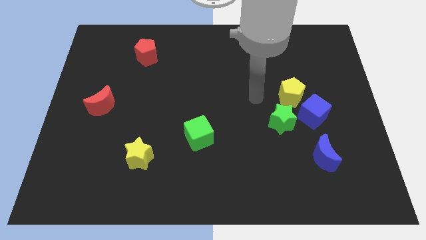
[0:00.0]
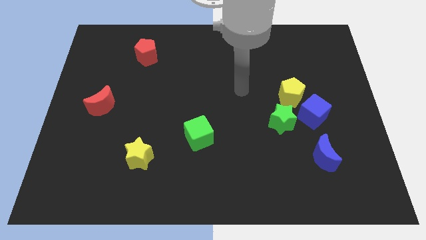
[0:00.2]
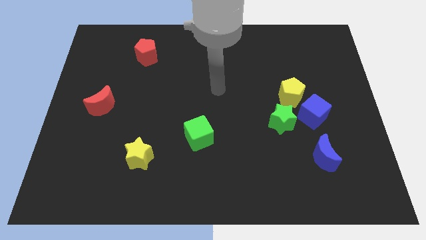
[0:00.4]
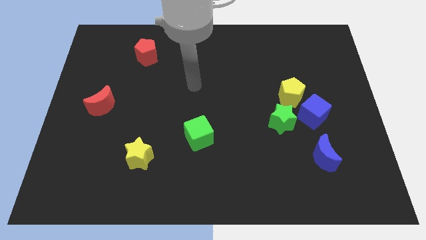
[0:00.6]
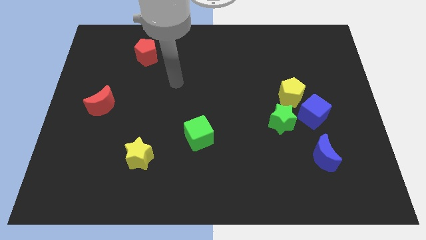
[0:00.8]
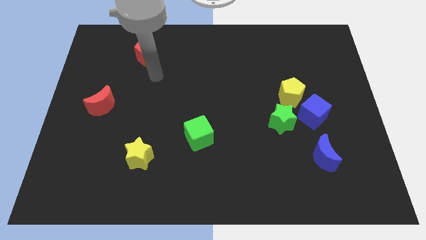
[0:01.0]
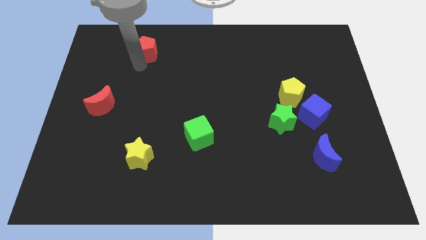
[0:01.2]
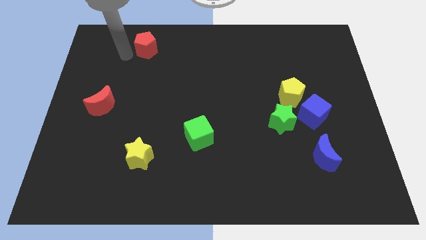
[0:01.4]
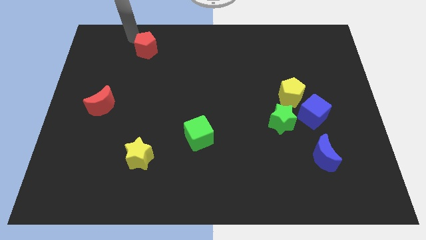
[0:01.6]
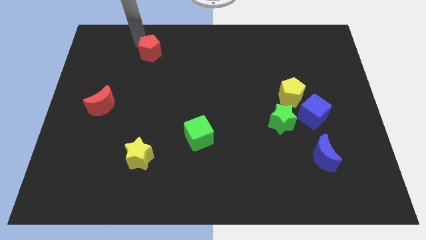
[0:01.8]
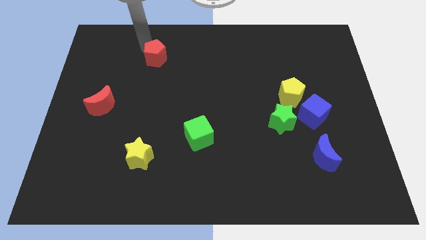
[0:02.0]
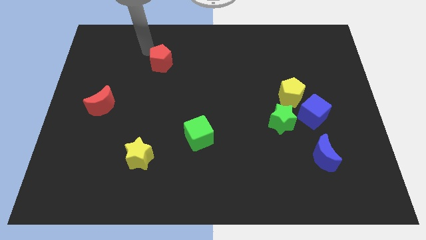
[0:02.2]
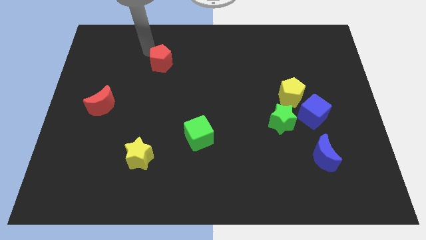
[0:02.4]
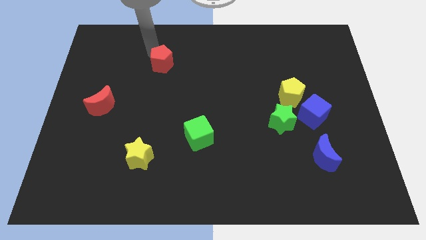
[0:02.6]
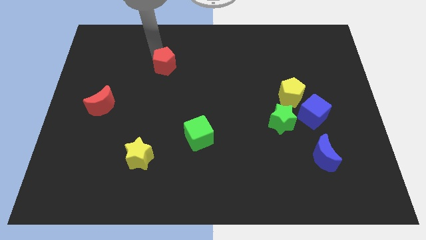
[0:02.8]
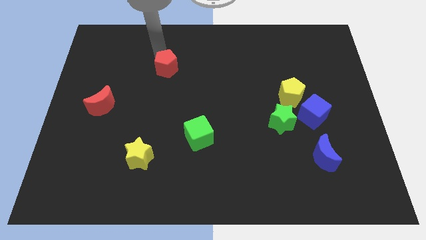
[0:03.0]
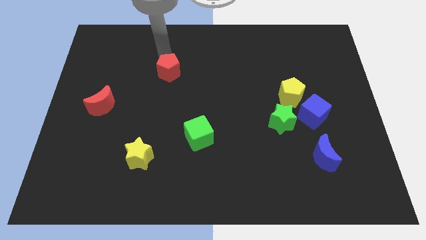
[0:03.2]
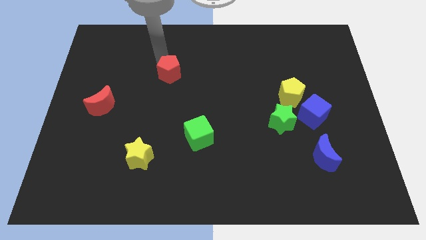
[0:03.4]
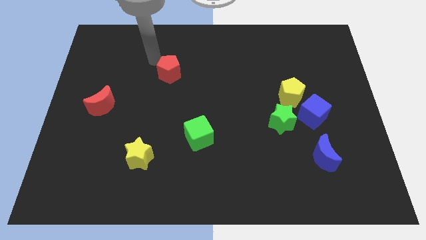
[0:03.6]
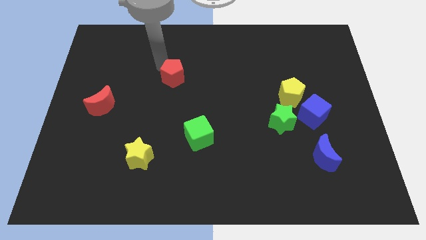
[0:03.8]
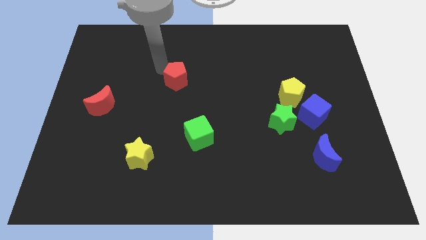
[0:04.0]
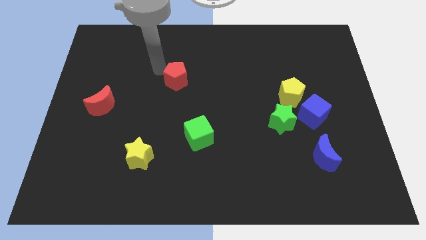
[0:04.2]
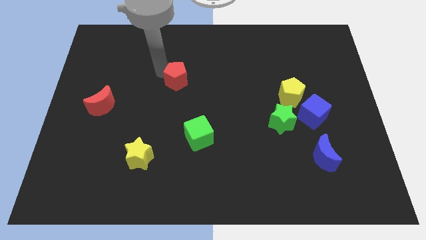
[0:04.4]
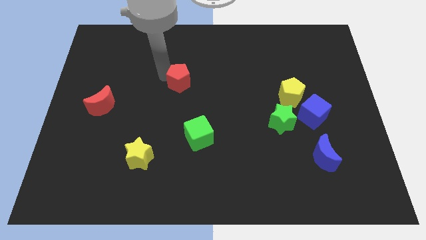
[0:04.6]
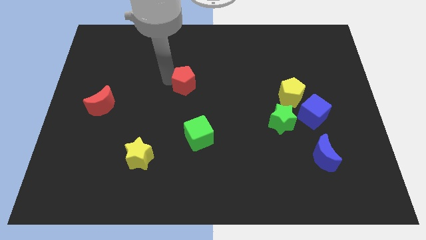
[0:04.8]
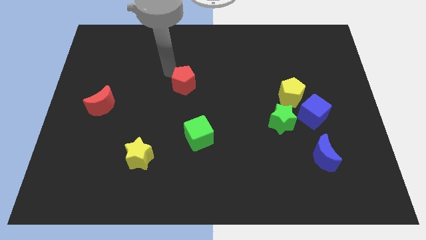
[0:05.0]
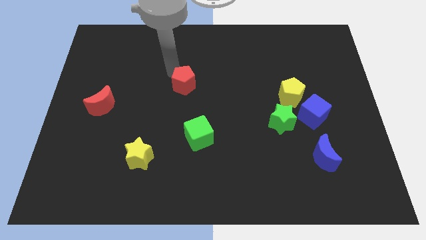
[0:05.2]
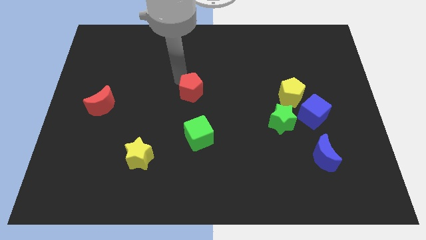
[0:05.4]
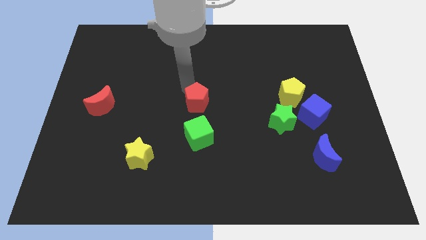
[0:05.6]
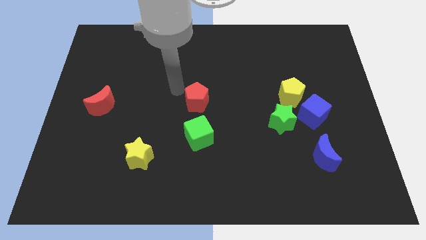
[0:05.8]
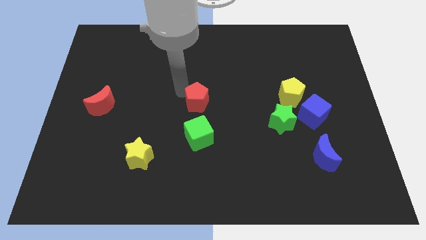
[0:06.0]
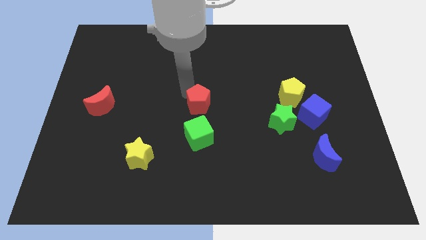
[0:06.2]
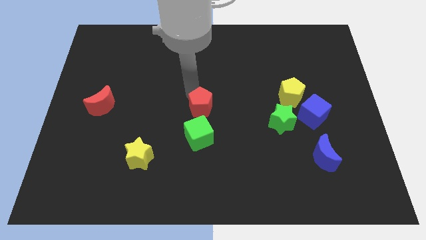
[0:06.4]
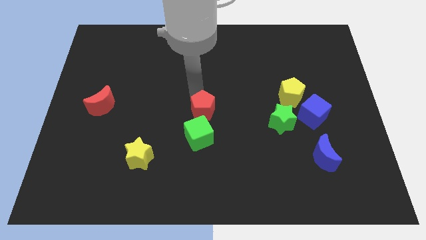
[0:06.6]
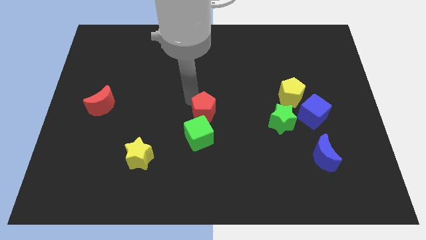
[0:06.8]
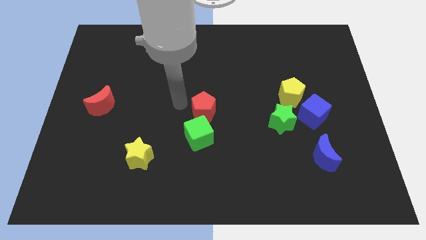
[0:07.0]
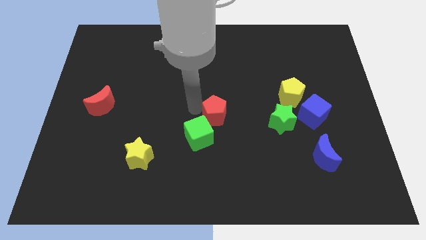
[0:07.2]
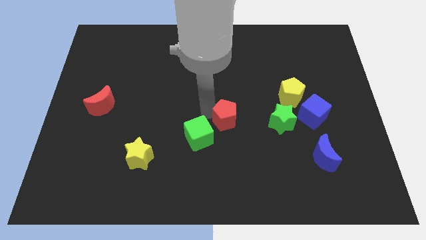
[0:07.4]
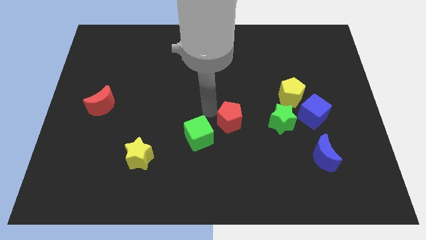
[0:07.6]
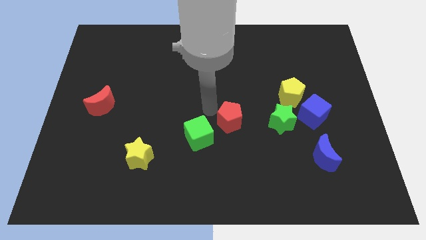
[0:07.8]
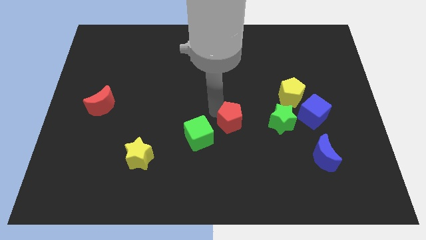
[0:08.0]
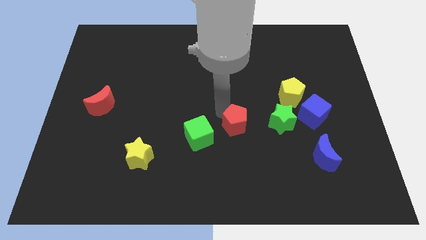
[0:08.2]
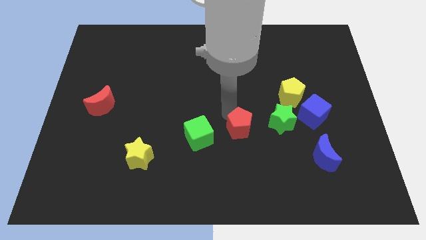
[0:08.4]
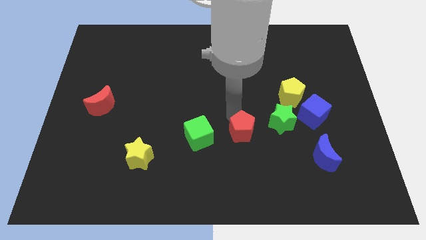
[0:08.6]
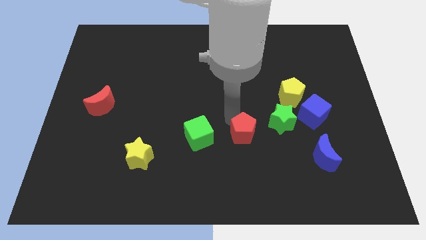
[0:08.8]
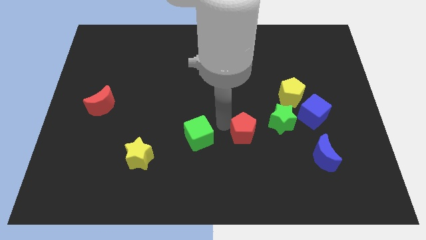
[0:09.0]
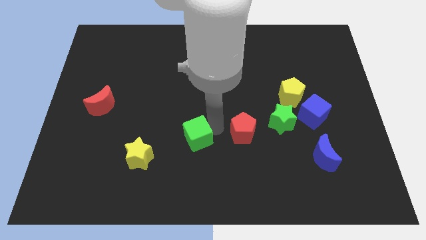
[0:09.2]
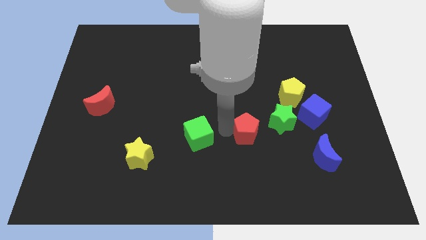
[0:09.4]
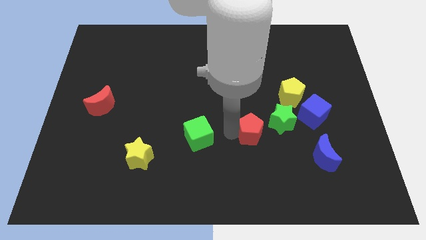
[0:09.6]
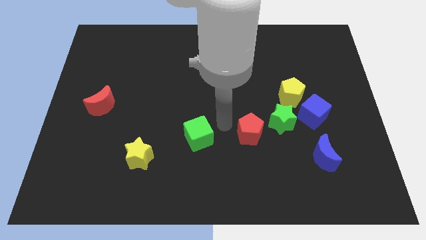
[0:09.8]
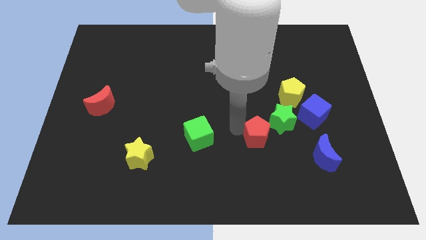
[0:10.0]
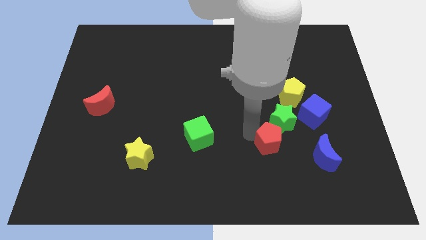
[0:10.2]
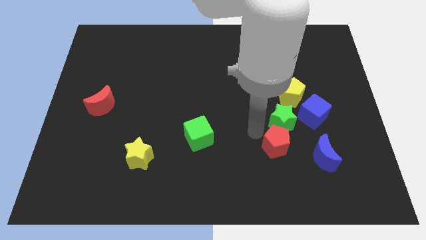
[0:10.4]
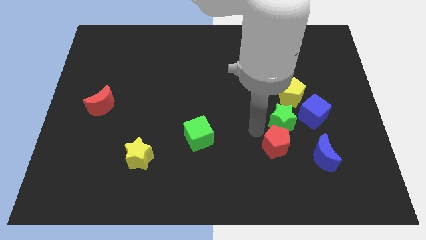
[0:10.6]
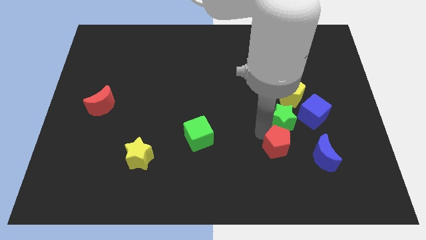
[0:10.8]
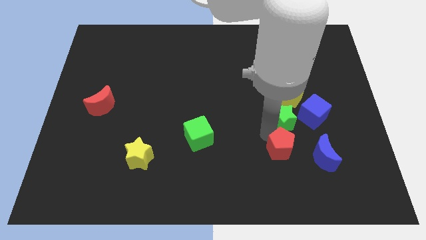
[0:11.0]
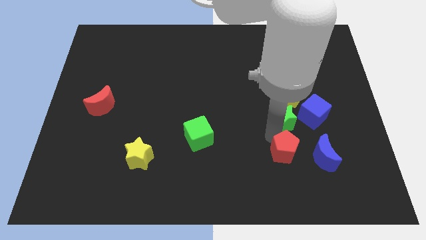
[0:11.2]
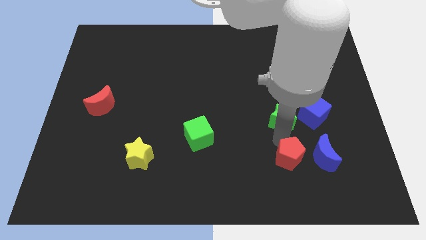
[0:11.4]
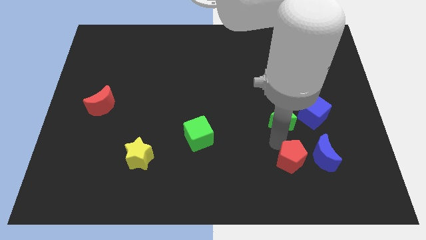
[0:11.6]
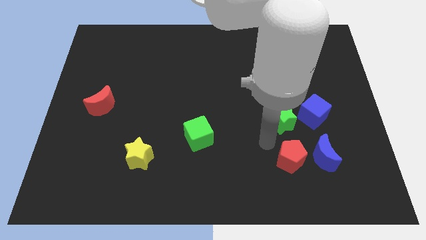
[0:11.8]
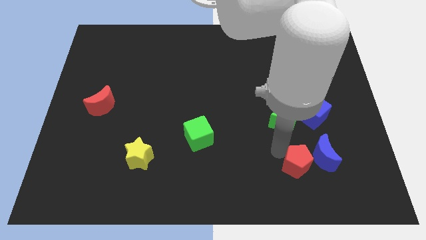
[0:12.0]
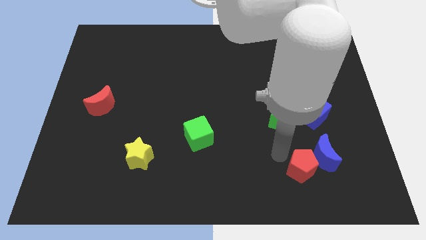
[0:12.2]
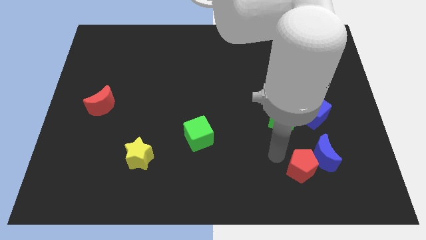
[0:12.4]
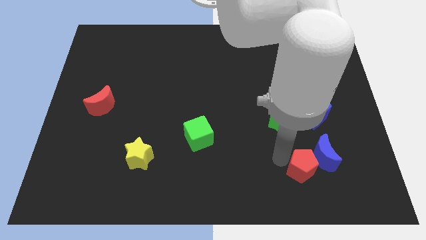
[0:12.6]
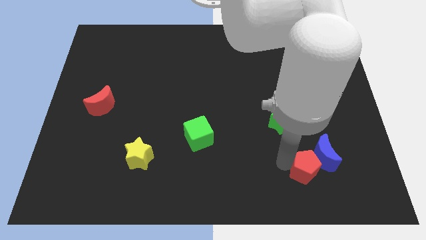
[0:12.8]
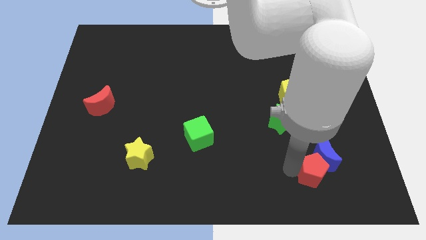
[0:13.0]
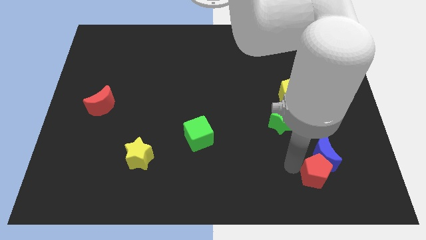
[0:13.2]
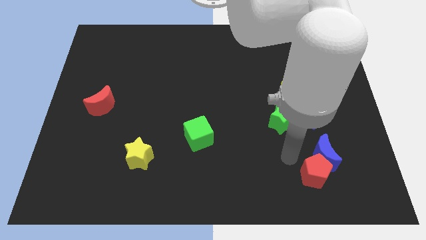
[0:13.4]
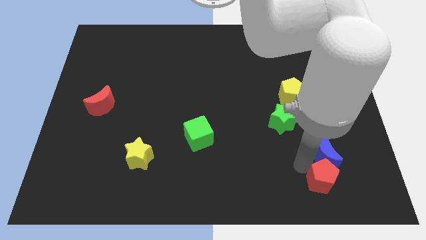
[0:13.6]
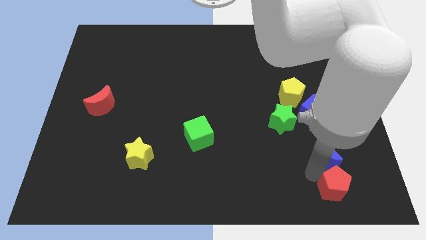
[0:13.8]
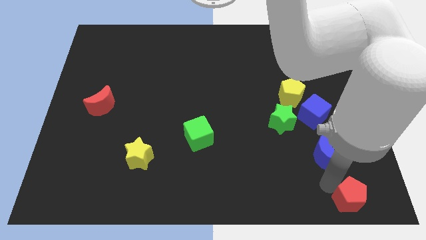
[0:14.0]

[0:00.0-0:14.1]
move the red pentagon to the bottom right corner
